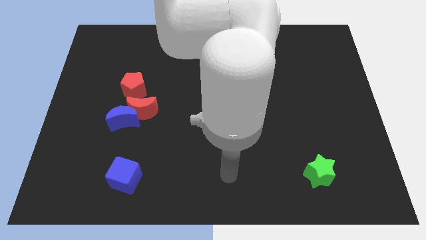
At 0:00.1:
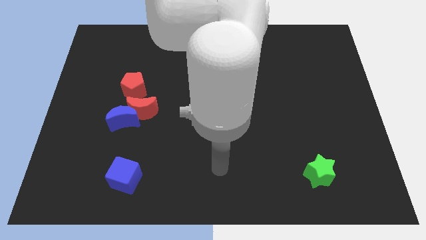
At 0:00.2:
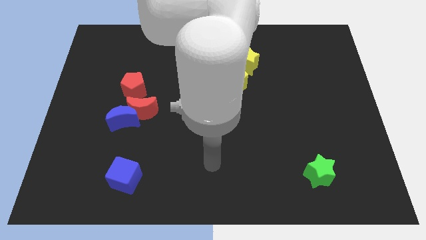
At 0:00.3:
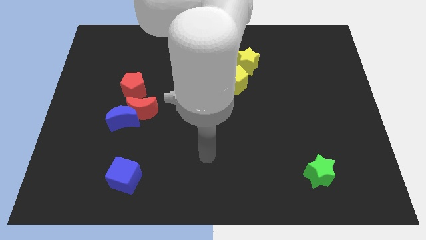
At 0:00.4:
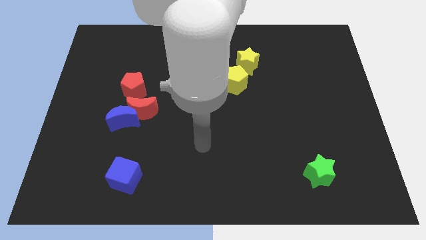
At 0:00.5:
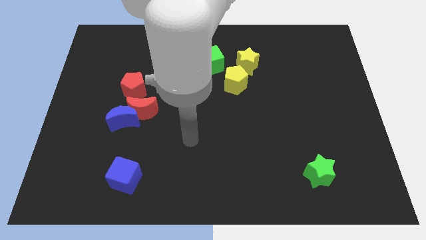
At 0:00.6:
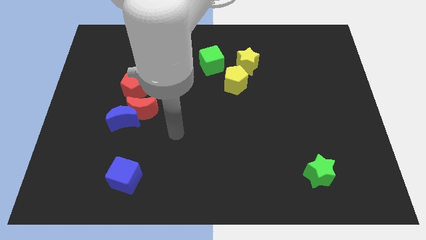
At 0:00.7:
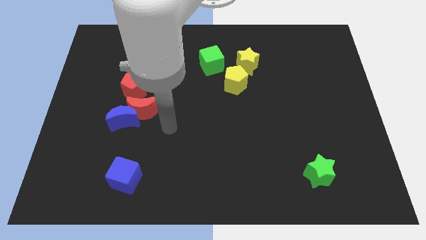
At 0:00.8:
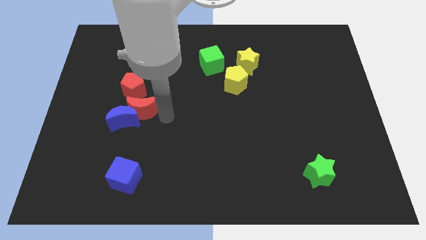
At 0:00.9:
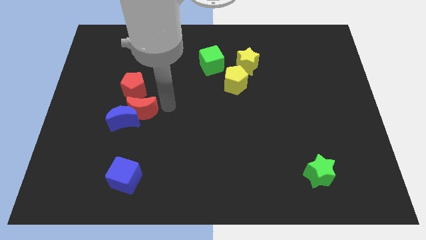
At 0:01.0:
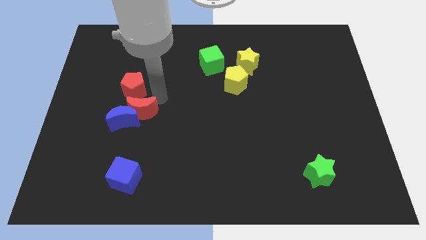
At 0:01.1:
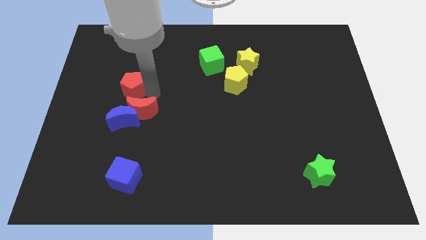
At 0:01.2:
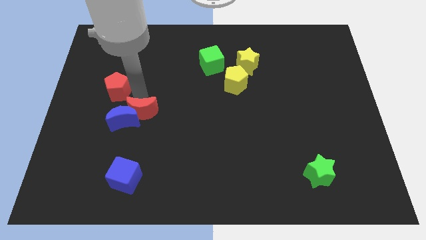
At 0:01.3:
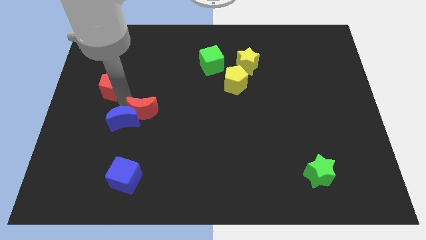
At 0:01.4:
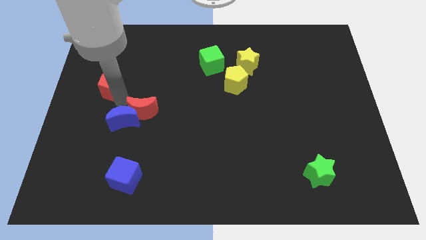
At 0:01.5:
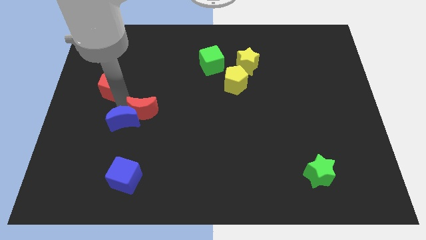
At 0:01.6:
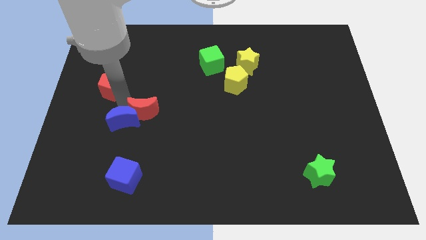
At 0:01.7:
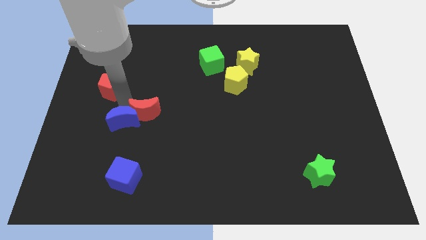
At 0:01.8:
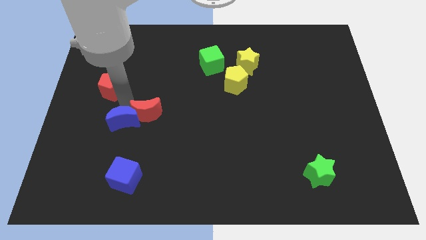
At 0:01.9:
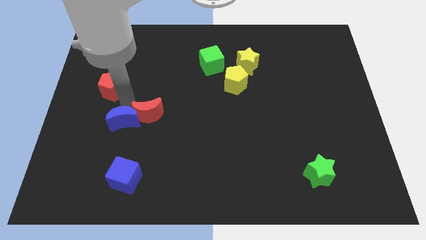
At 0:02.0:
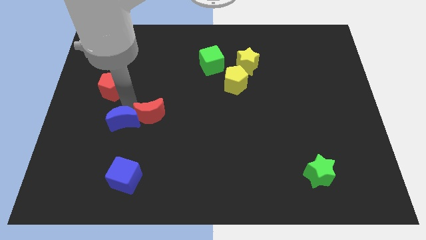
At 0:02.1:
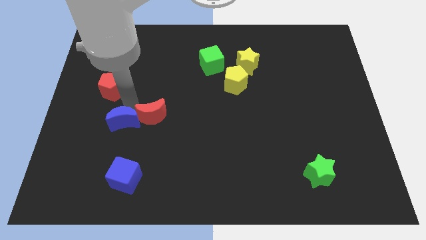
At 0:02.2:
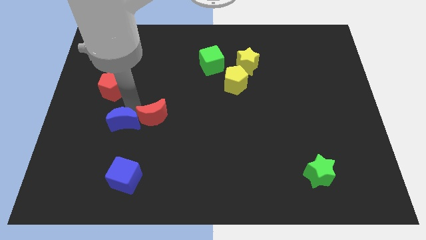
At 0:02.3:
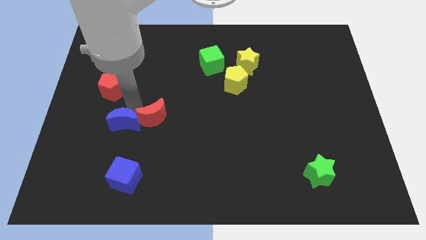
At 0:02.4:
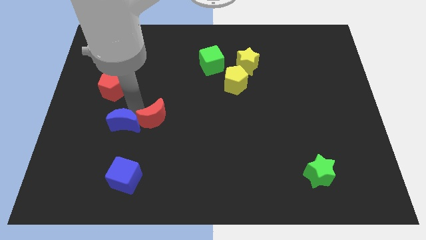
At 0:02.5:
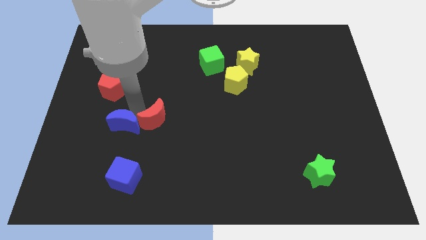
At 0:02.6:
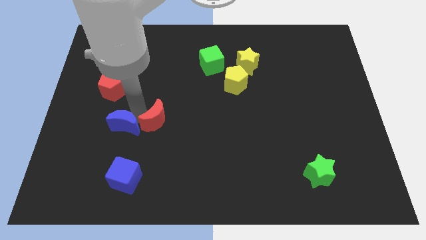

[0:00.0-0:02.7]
pull the red moon apart from the blue moon and red pentagon

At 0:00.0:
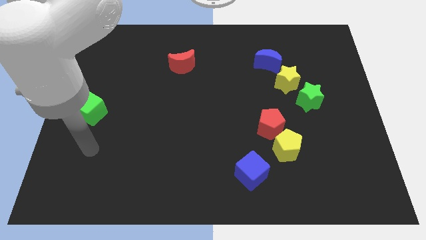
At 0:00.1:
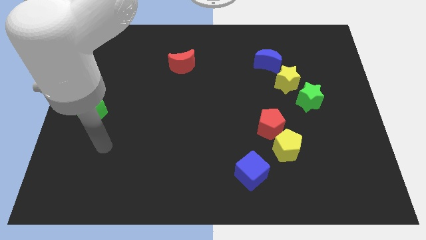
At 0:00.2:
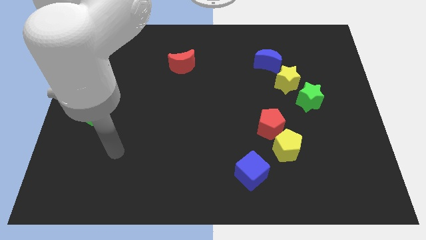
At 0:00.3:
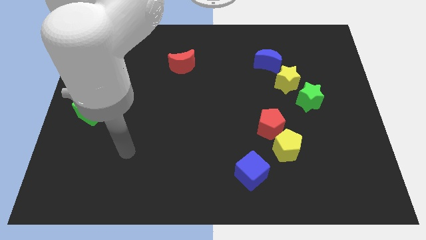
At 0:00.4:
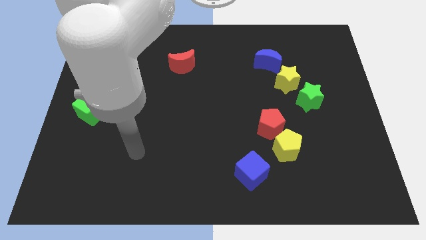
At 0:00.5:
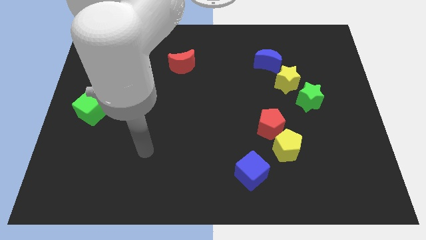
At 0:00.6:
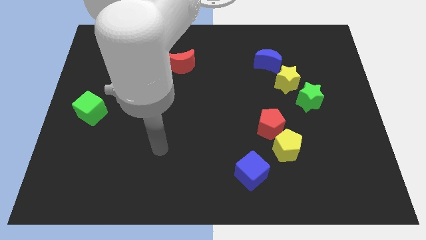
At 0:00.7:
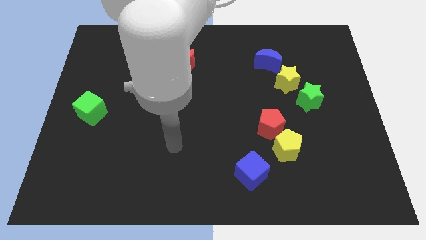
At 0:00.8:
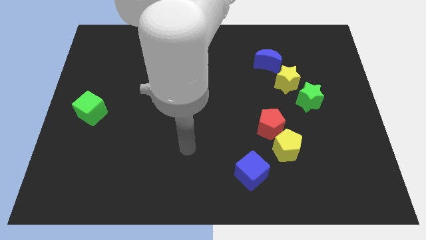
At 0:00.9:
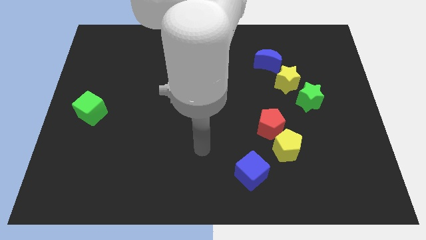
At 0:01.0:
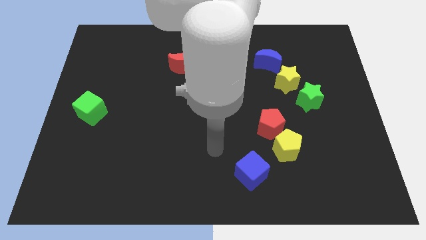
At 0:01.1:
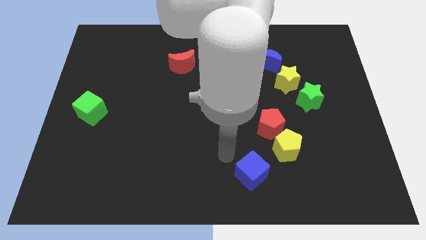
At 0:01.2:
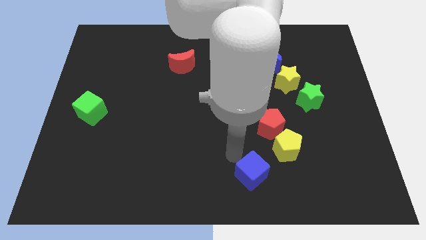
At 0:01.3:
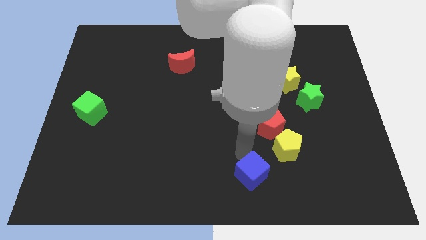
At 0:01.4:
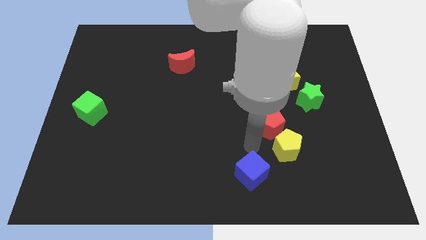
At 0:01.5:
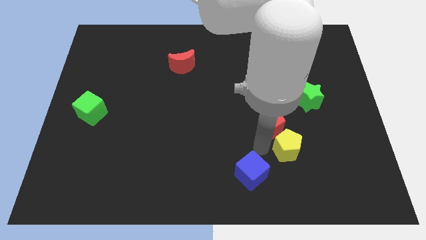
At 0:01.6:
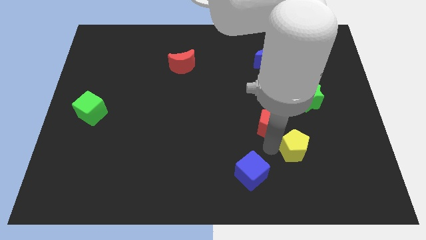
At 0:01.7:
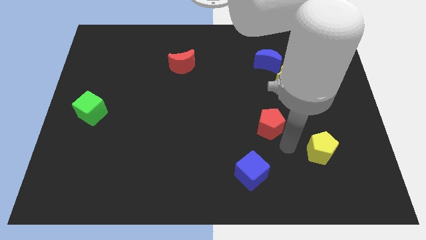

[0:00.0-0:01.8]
move the red pentagon away from the yellow pentagon

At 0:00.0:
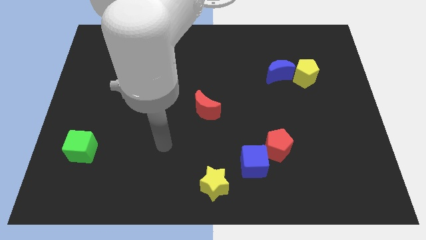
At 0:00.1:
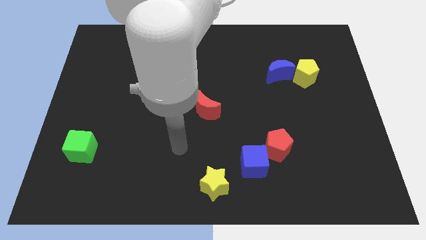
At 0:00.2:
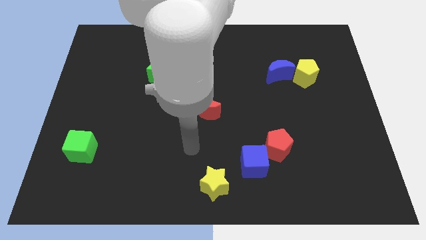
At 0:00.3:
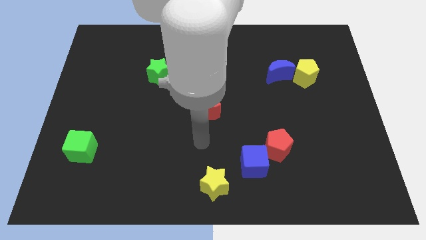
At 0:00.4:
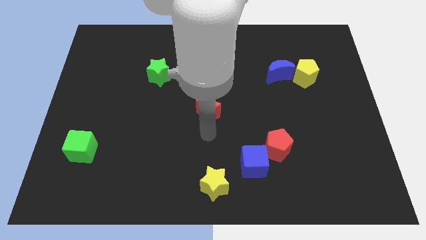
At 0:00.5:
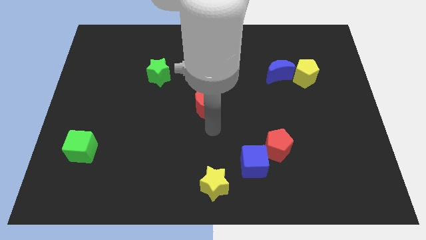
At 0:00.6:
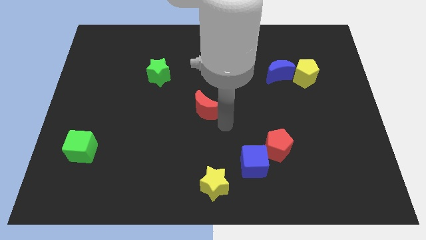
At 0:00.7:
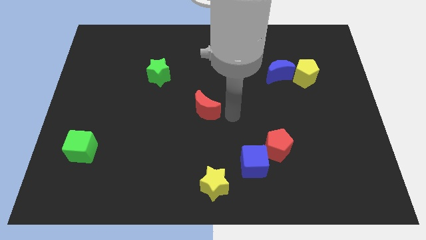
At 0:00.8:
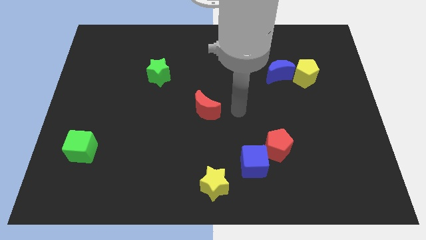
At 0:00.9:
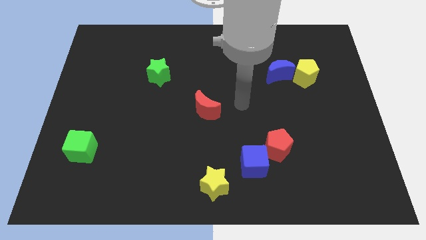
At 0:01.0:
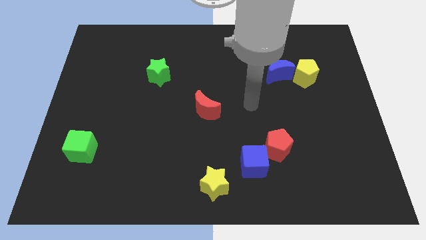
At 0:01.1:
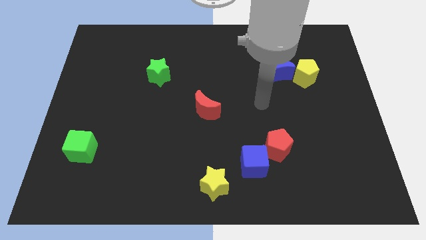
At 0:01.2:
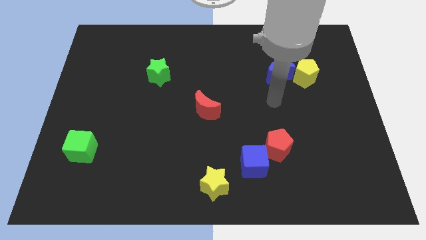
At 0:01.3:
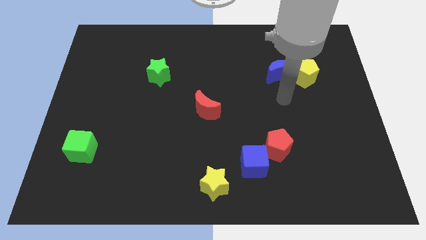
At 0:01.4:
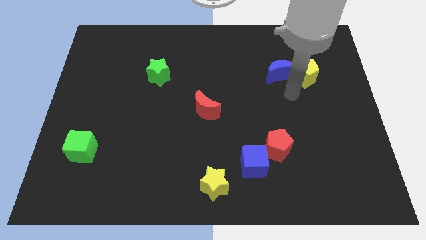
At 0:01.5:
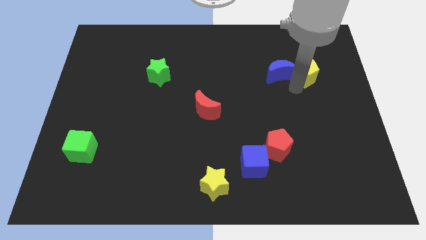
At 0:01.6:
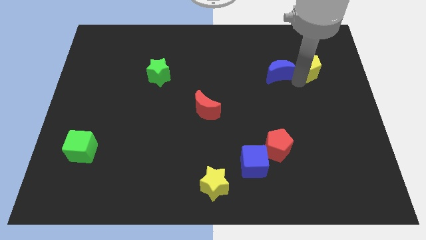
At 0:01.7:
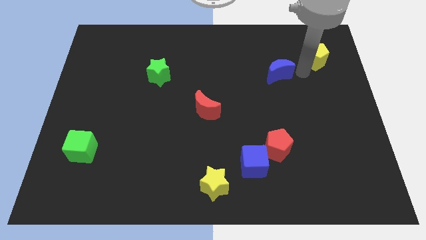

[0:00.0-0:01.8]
separate the blue moon from the yellow pentagon

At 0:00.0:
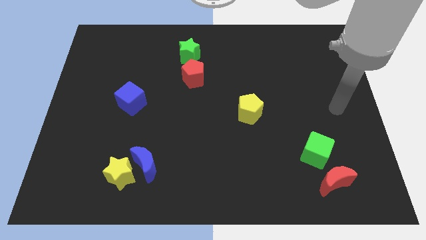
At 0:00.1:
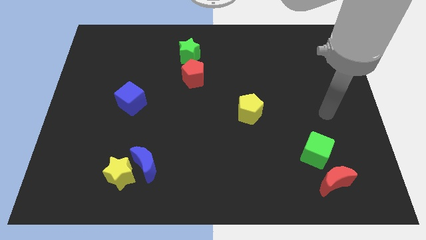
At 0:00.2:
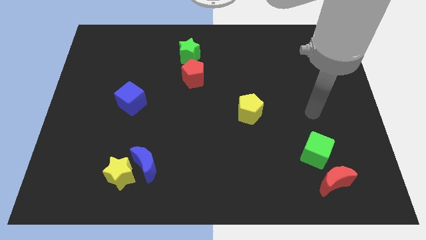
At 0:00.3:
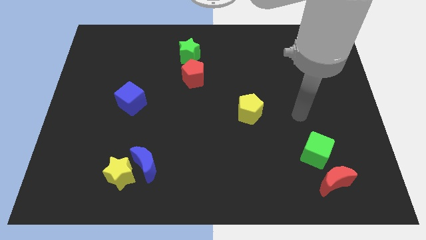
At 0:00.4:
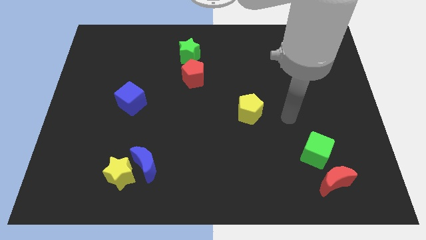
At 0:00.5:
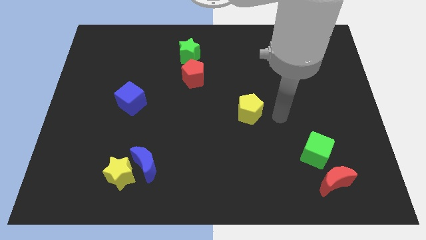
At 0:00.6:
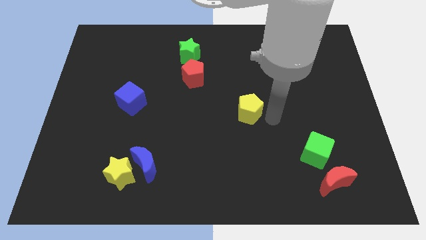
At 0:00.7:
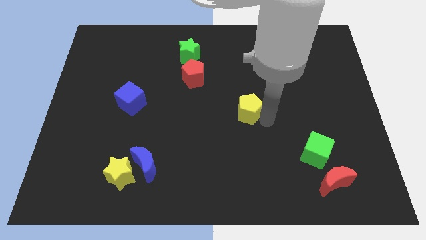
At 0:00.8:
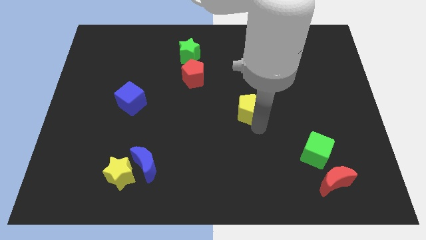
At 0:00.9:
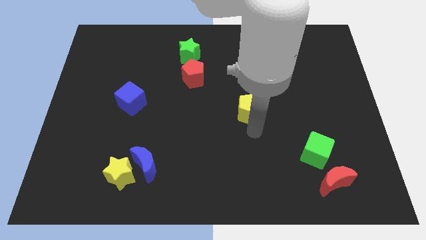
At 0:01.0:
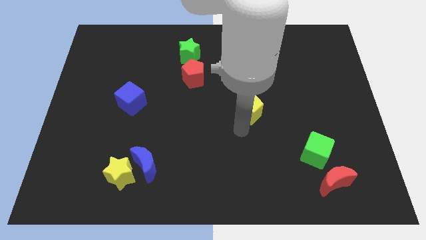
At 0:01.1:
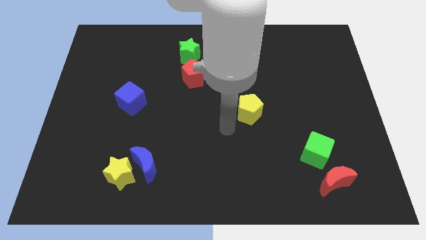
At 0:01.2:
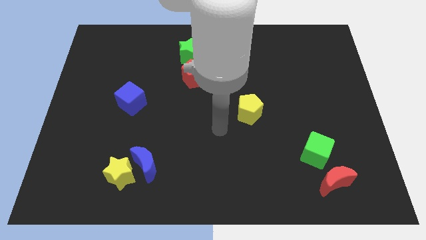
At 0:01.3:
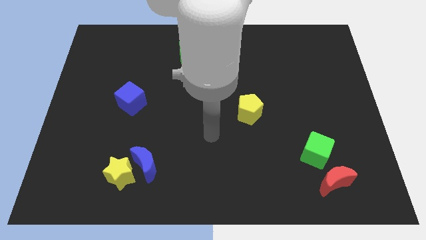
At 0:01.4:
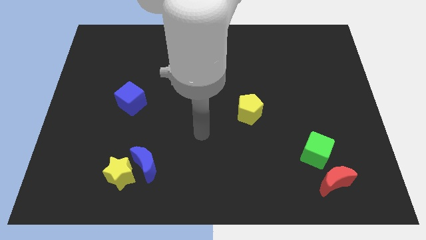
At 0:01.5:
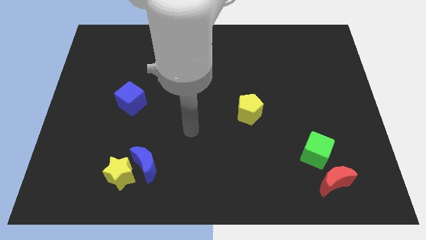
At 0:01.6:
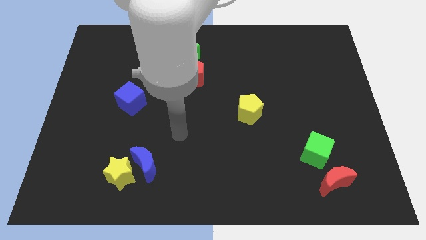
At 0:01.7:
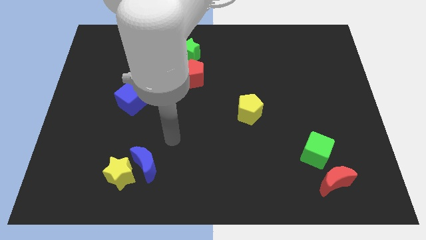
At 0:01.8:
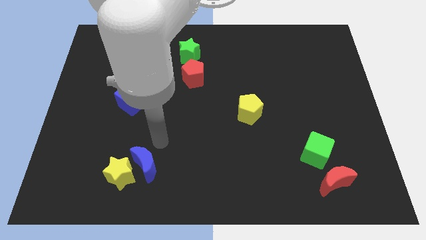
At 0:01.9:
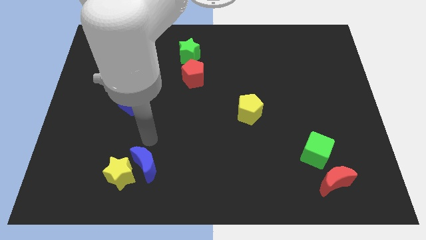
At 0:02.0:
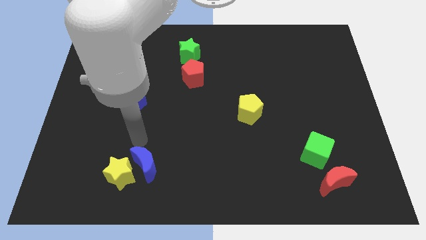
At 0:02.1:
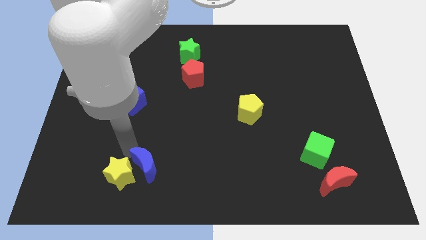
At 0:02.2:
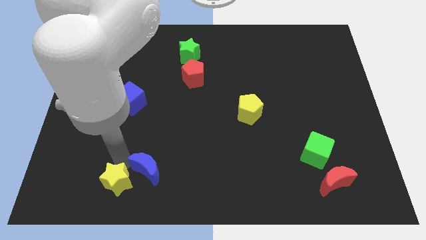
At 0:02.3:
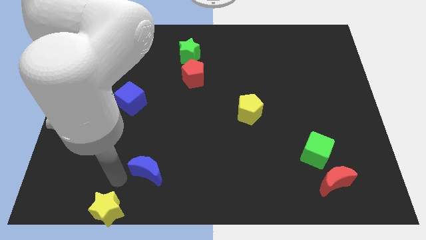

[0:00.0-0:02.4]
separate the blue moon from the yellow star

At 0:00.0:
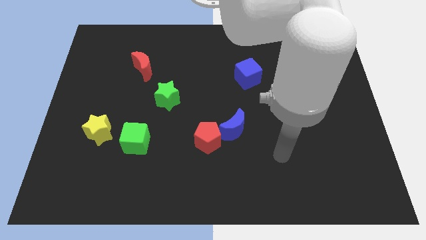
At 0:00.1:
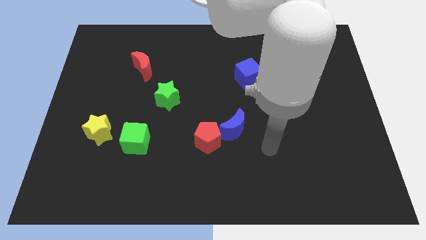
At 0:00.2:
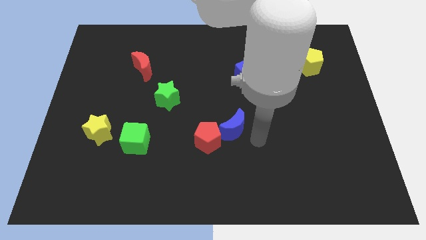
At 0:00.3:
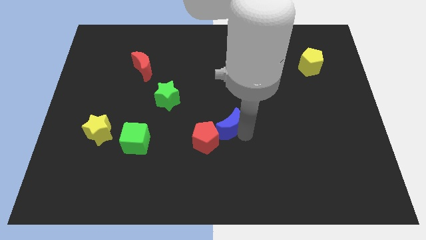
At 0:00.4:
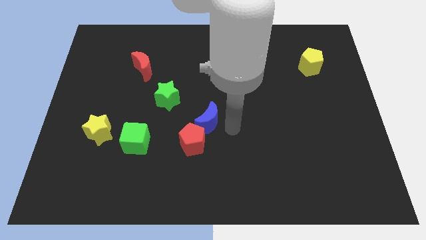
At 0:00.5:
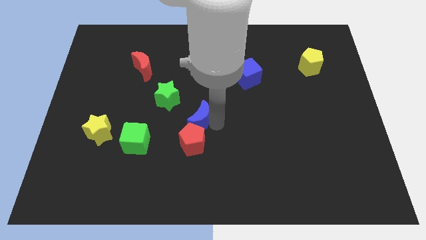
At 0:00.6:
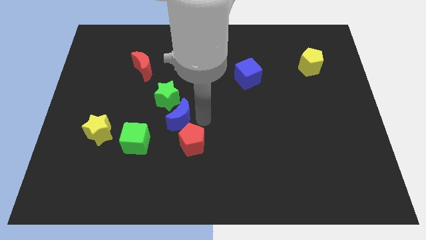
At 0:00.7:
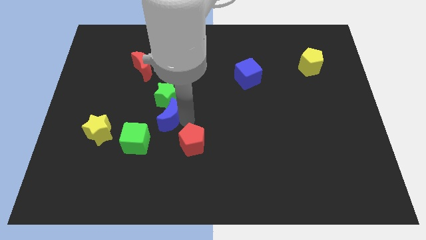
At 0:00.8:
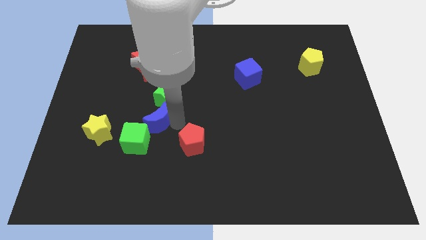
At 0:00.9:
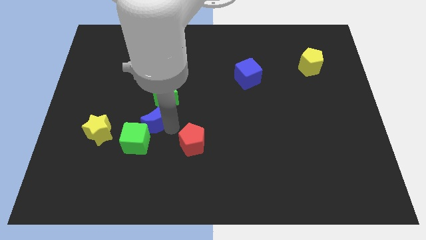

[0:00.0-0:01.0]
separate the red pentagon from the blue moon
